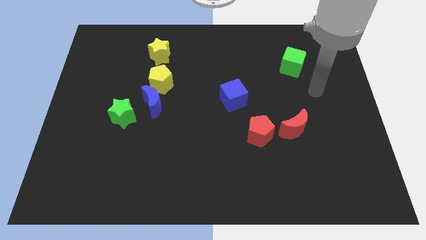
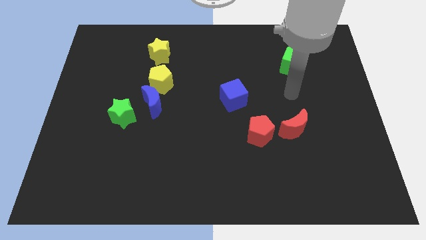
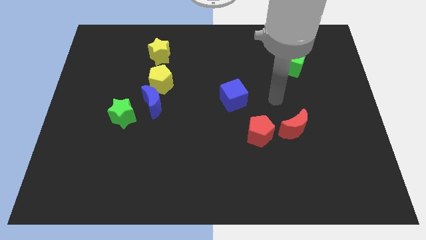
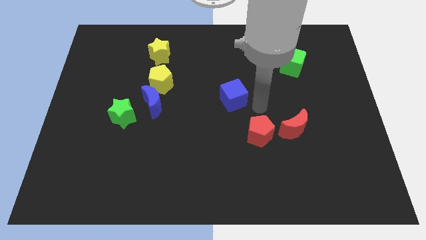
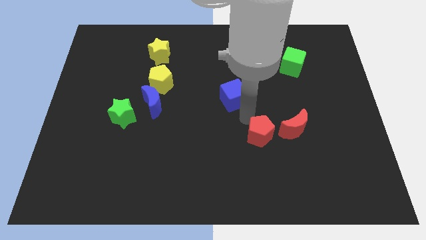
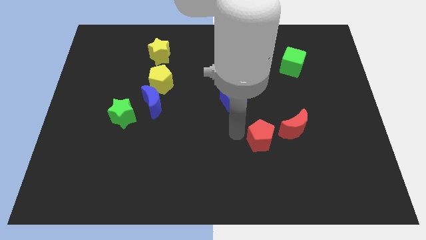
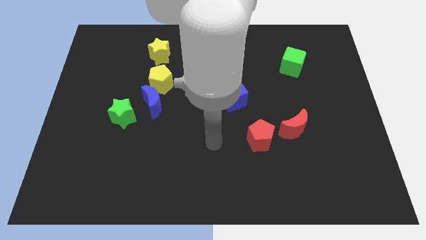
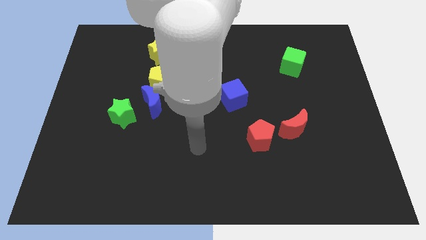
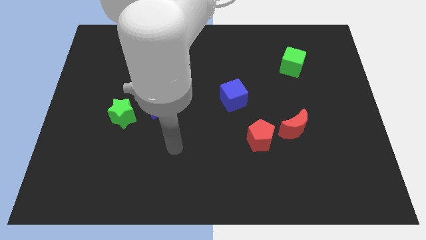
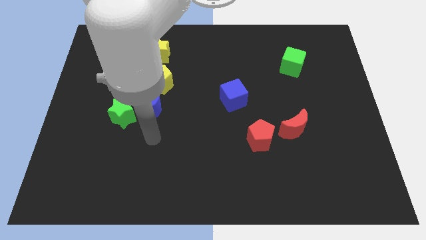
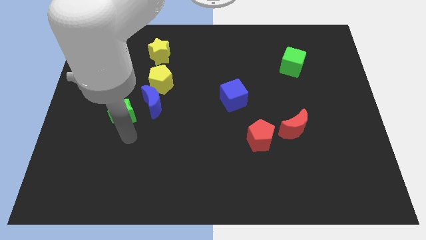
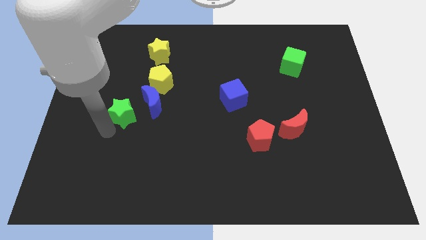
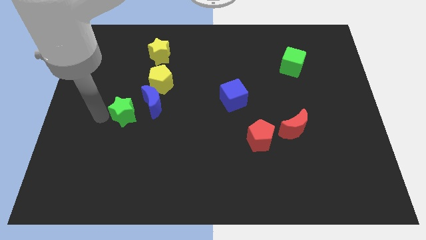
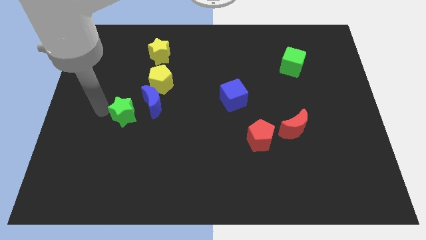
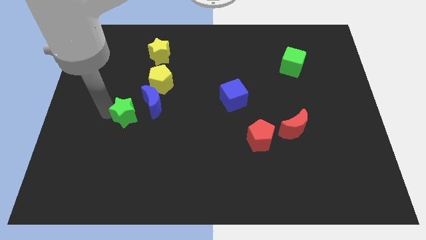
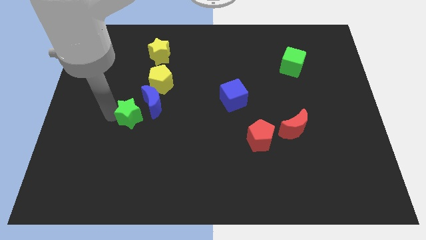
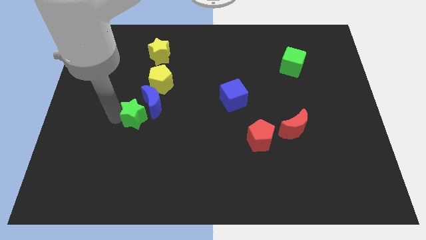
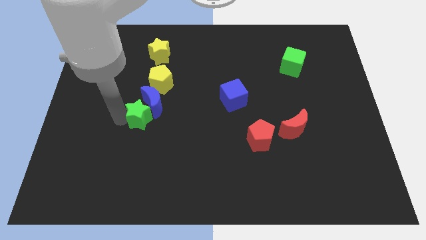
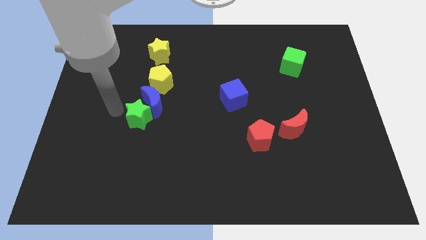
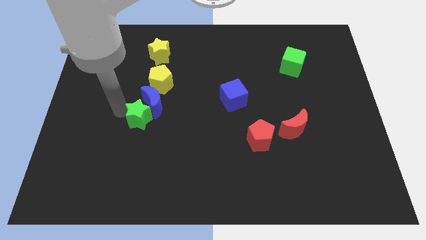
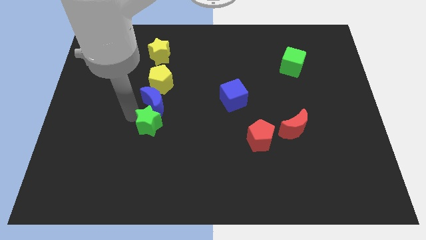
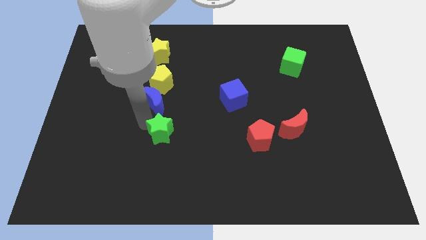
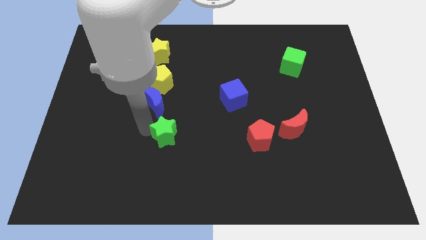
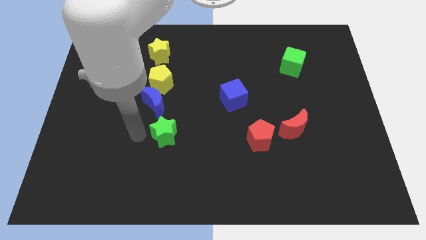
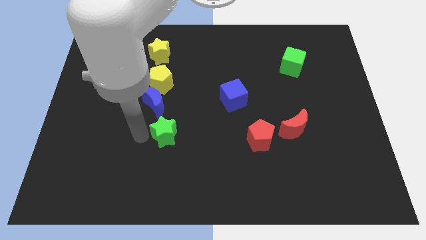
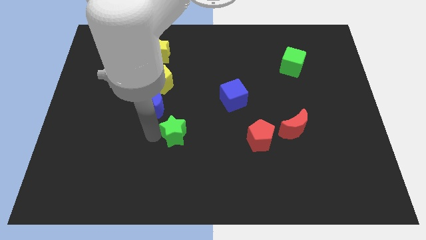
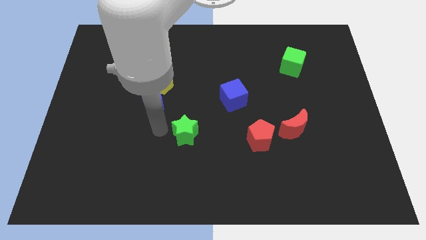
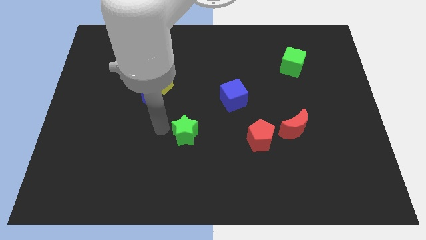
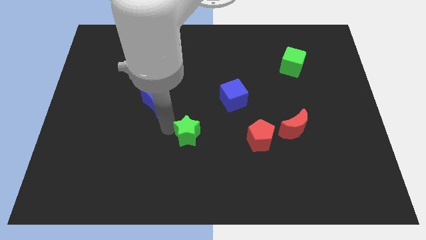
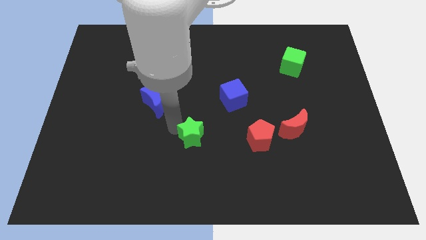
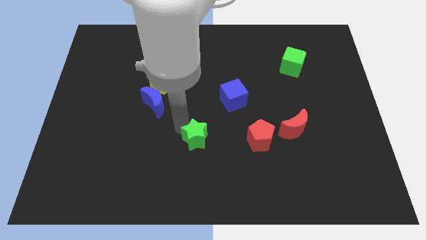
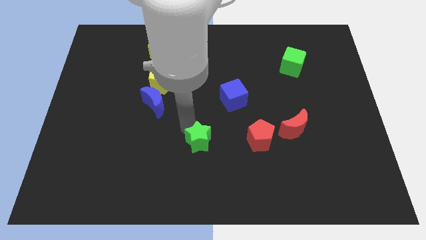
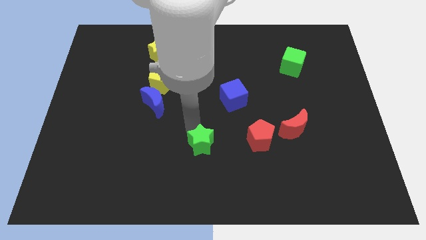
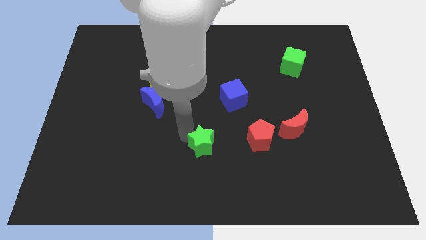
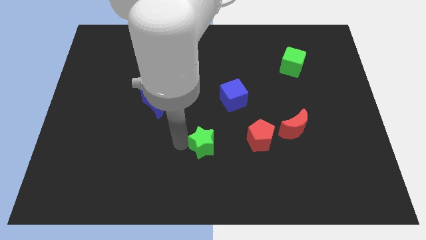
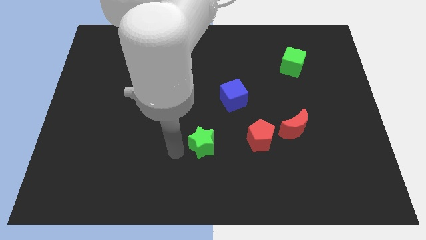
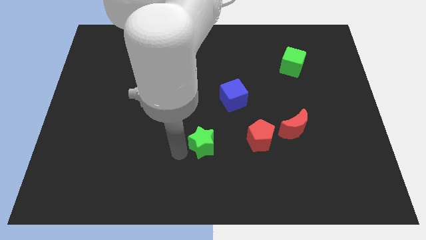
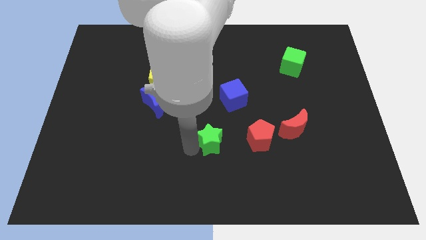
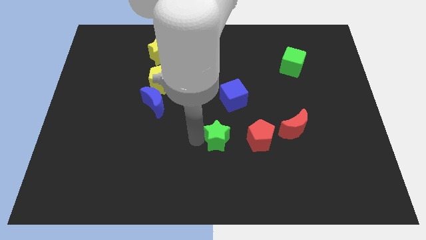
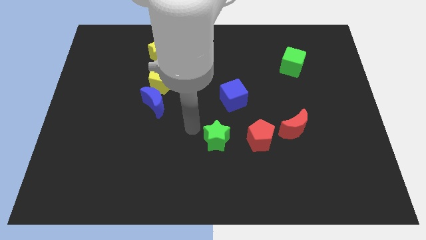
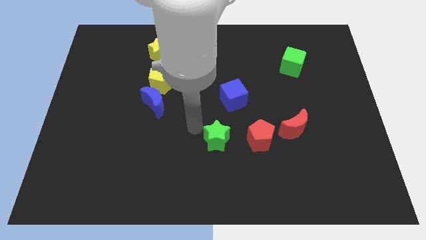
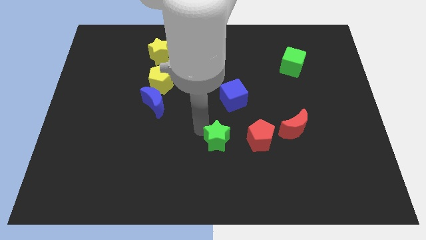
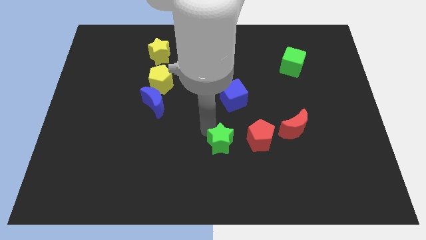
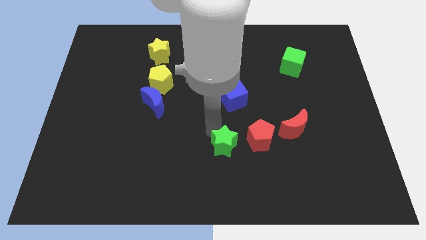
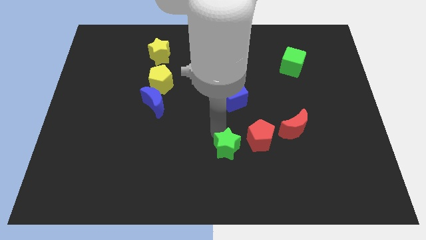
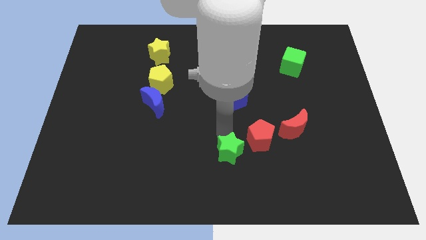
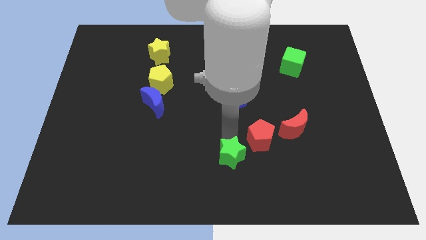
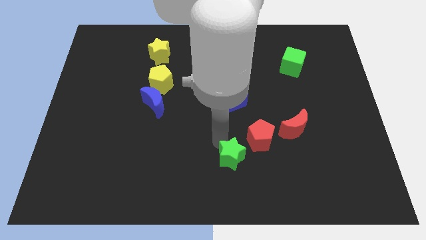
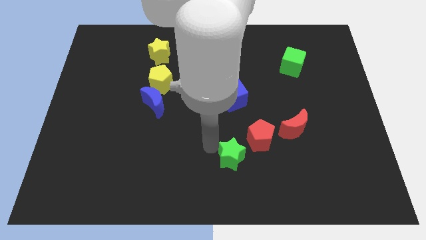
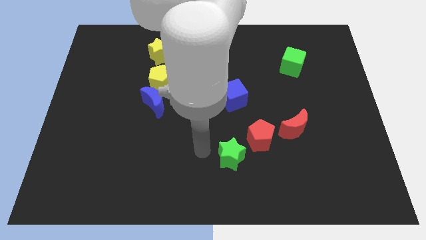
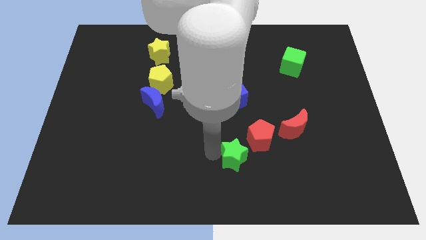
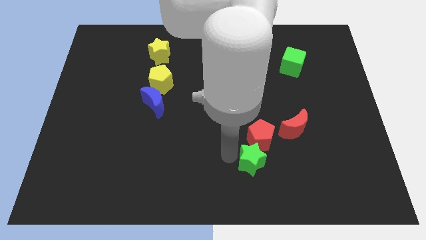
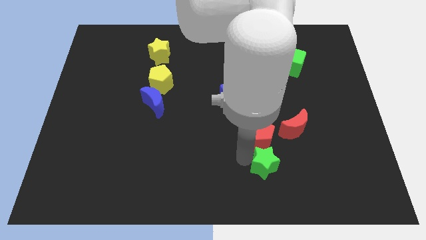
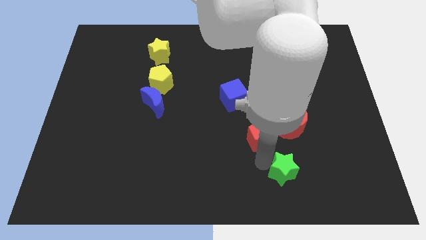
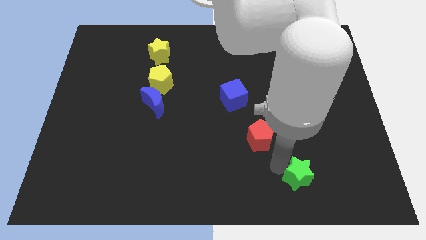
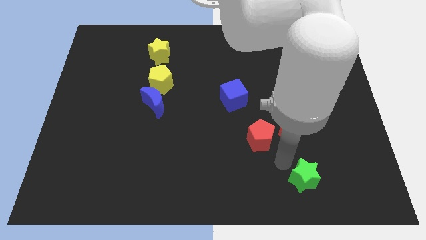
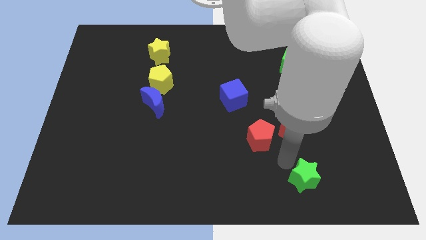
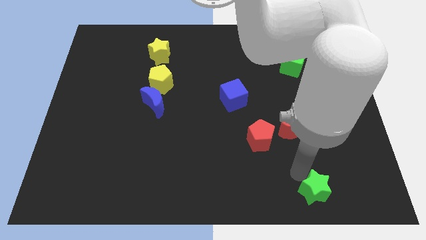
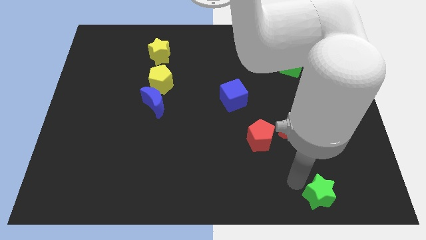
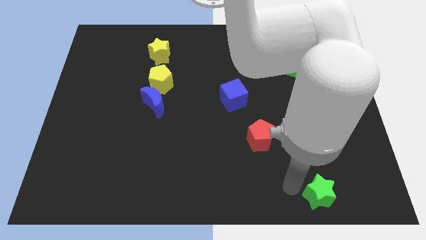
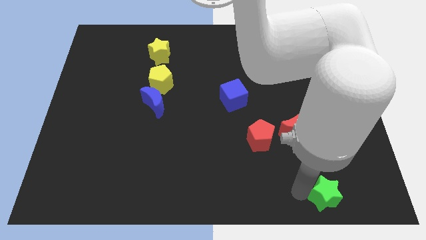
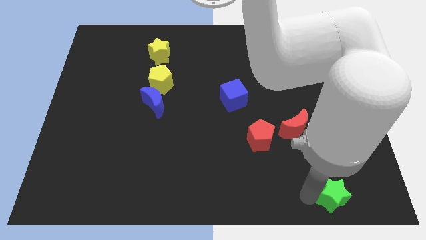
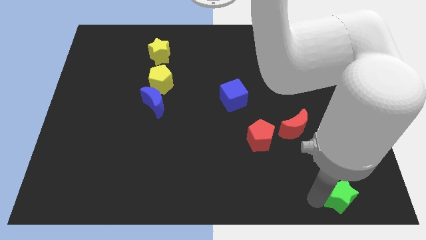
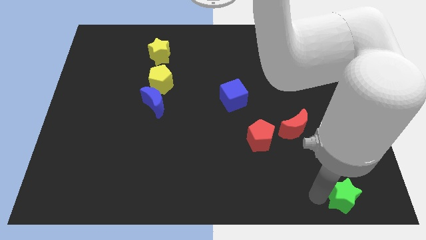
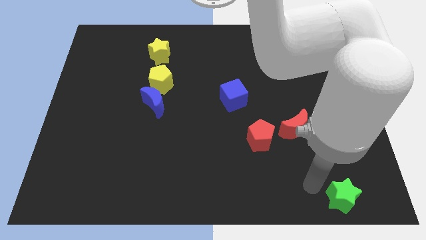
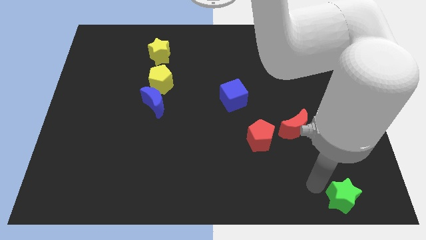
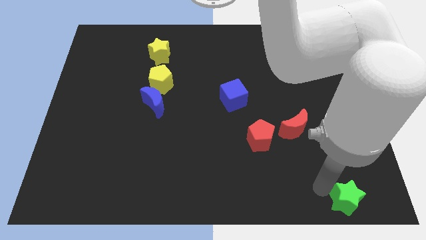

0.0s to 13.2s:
slide the green star to the bottom right
